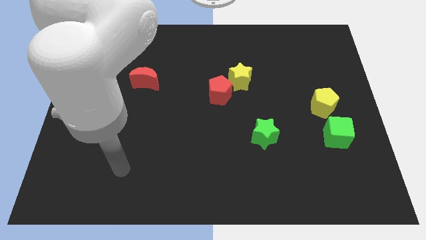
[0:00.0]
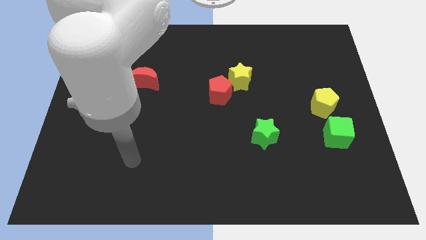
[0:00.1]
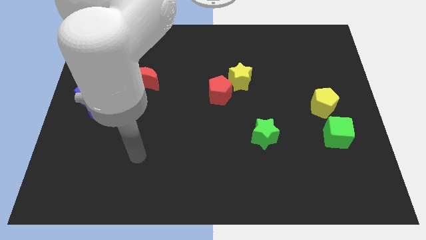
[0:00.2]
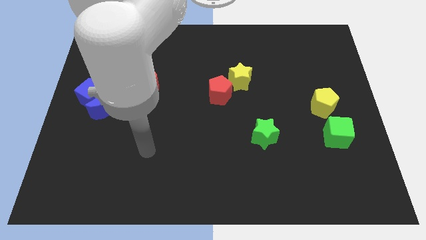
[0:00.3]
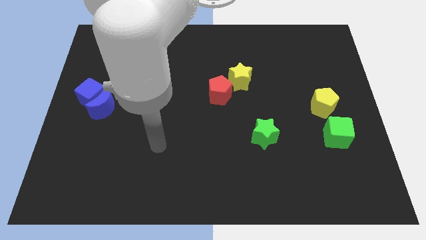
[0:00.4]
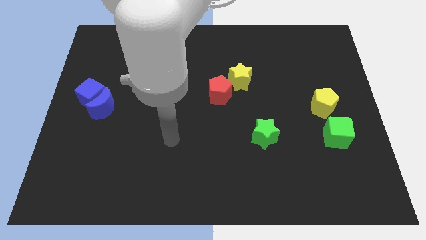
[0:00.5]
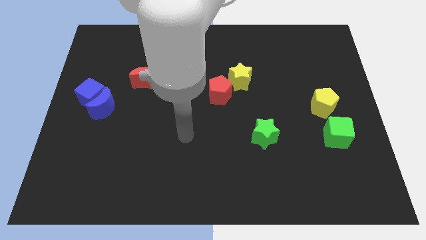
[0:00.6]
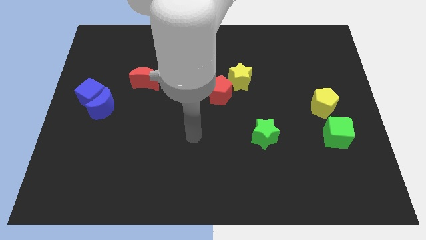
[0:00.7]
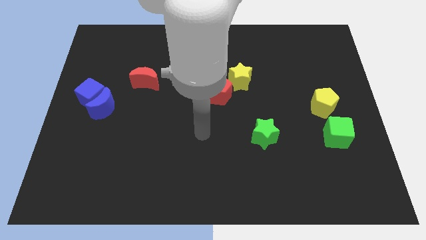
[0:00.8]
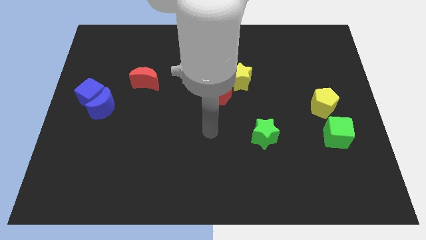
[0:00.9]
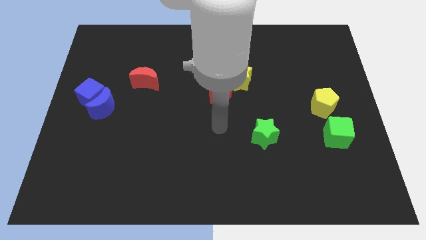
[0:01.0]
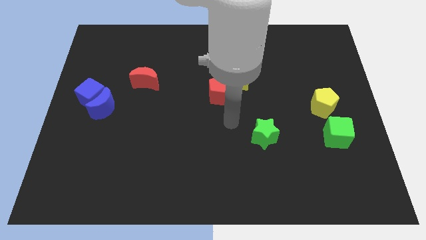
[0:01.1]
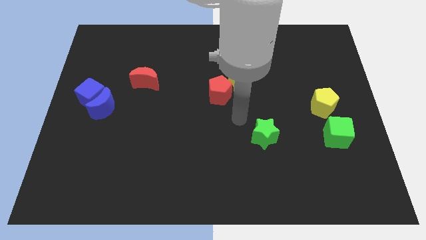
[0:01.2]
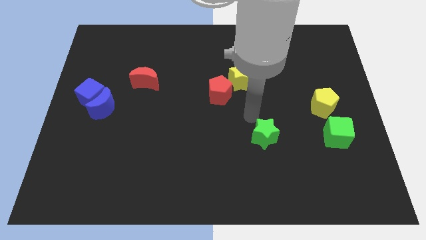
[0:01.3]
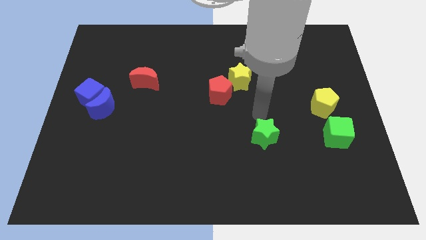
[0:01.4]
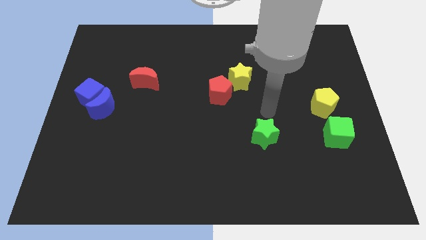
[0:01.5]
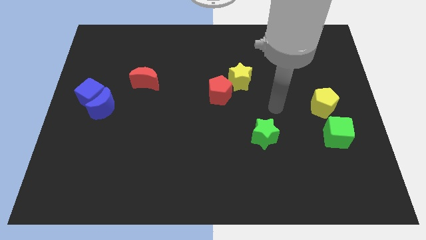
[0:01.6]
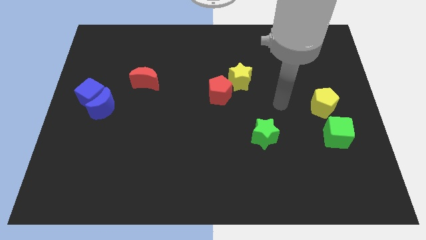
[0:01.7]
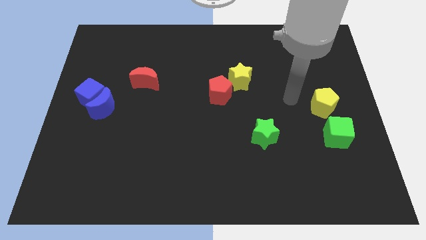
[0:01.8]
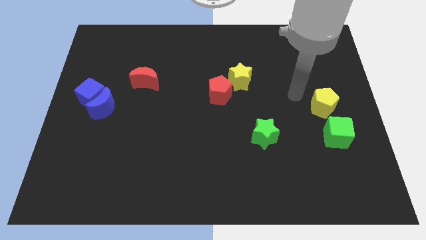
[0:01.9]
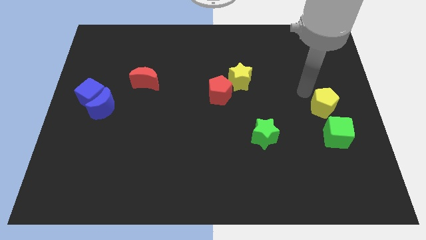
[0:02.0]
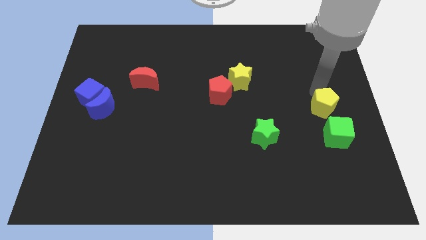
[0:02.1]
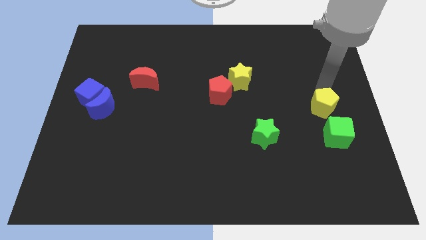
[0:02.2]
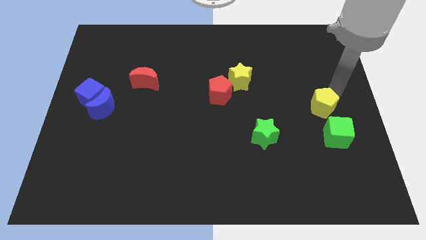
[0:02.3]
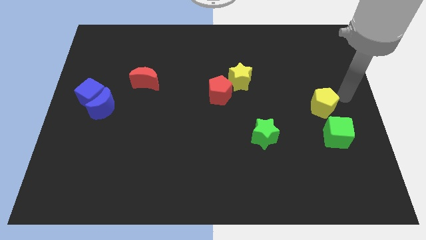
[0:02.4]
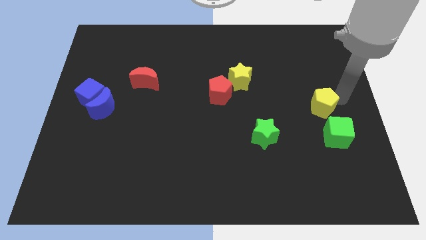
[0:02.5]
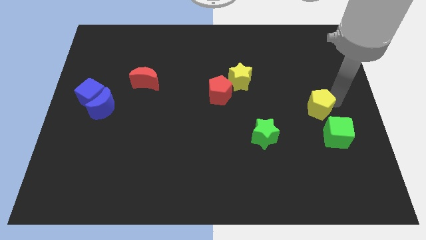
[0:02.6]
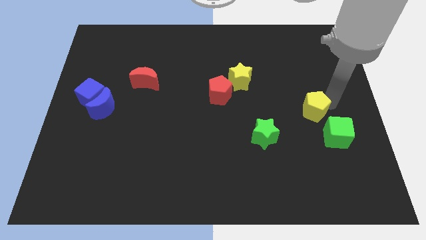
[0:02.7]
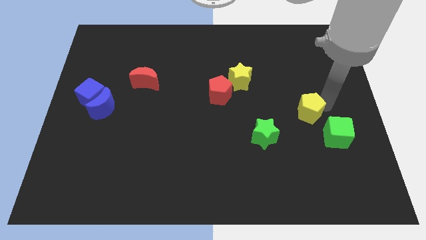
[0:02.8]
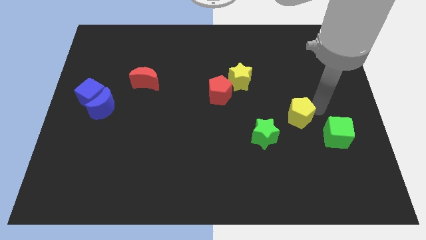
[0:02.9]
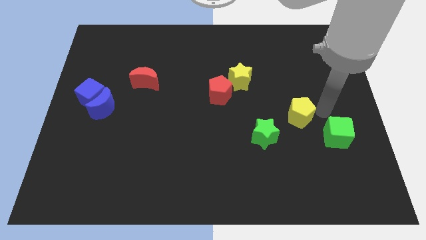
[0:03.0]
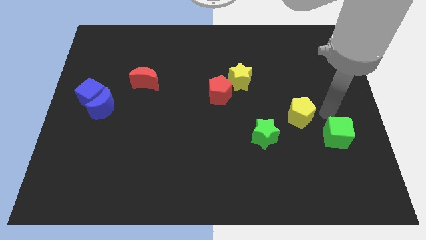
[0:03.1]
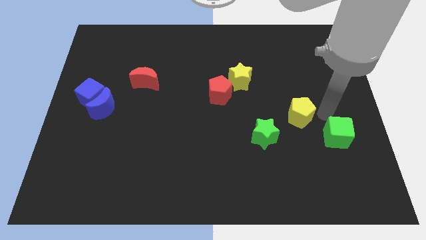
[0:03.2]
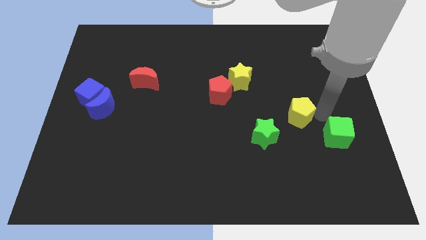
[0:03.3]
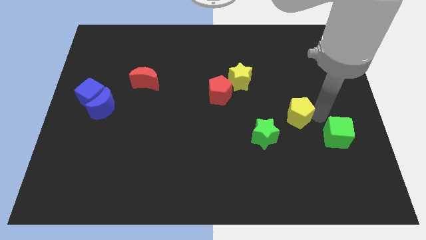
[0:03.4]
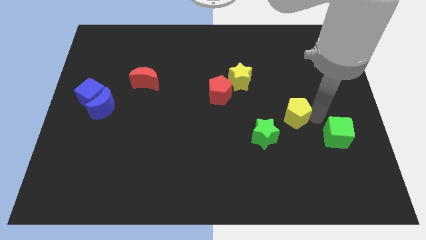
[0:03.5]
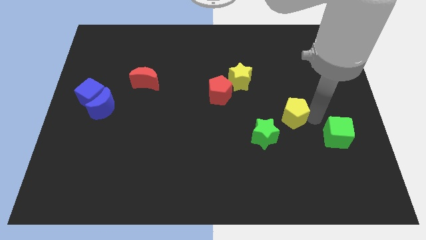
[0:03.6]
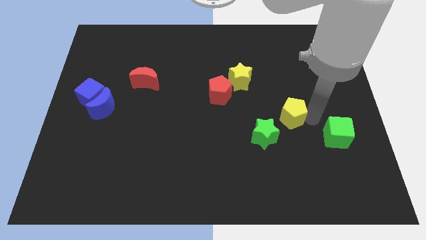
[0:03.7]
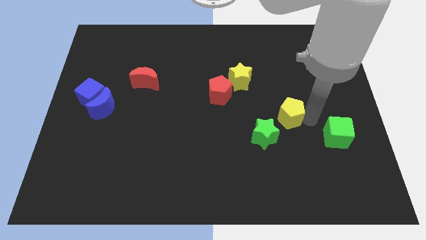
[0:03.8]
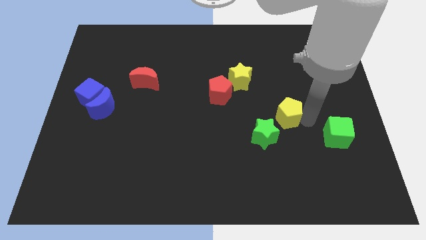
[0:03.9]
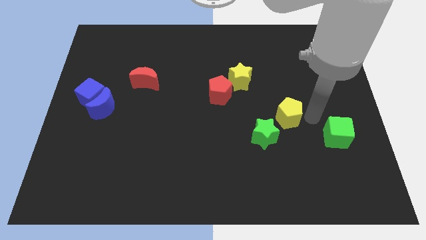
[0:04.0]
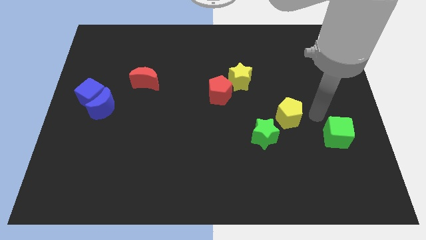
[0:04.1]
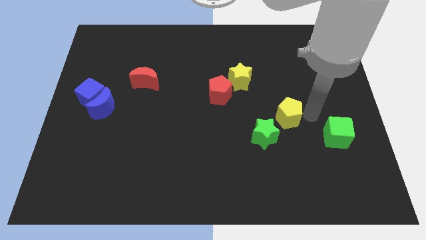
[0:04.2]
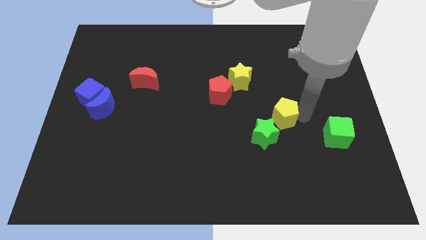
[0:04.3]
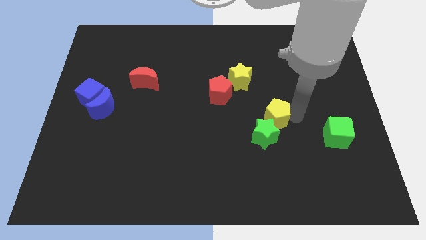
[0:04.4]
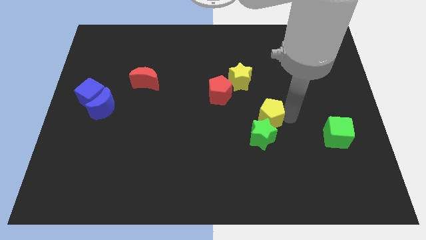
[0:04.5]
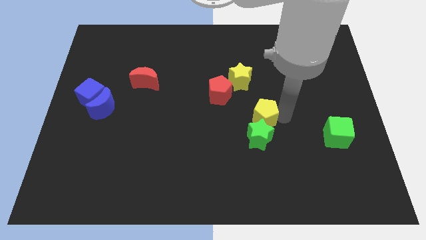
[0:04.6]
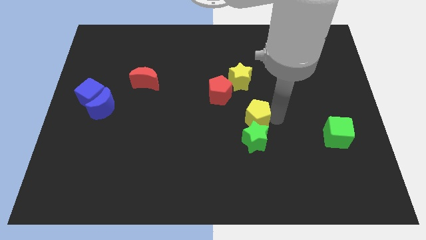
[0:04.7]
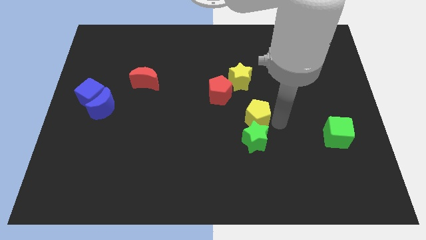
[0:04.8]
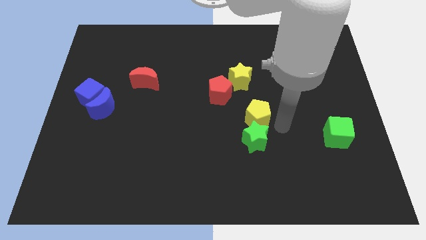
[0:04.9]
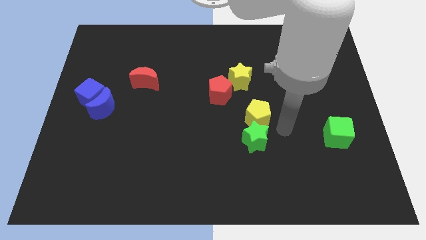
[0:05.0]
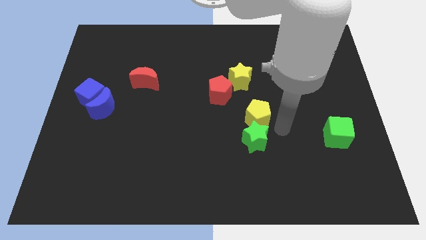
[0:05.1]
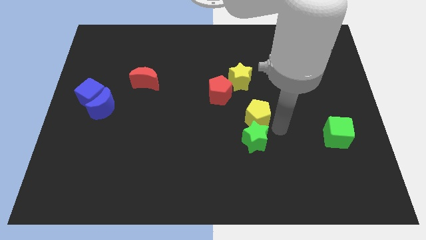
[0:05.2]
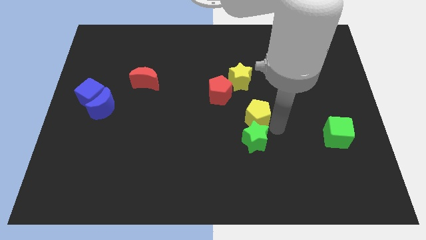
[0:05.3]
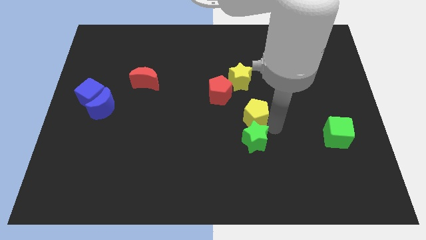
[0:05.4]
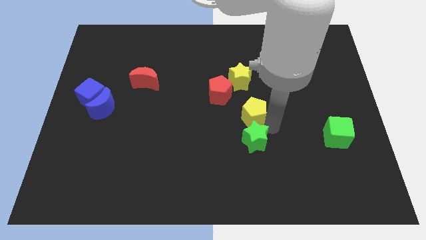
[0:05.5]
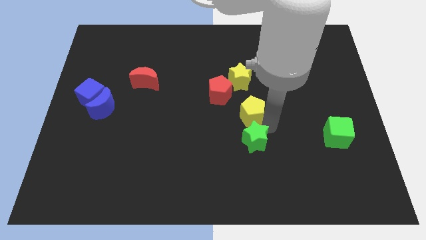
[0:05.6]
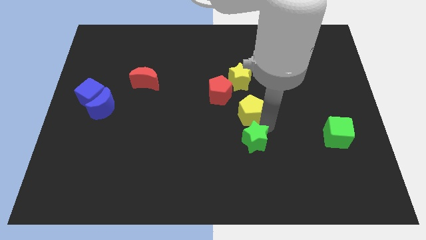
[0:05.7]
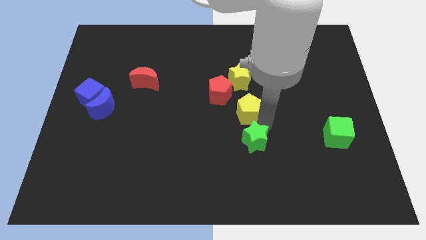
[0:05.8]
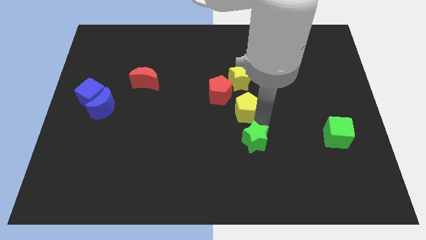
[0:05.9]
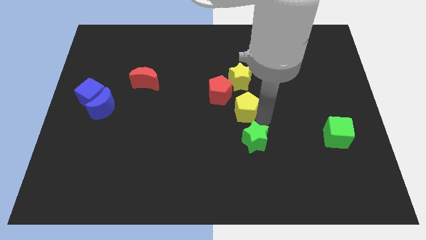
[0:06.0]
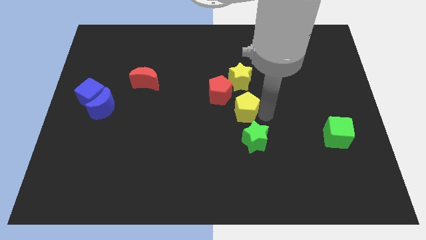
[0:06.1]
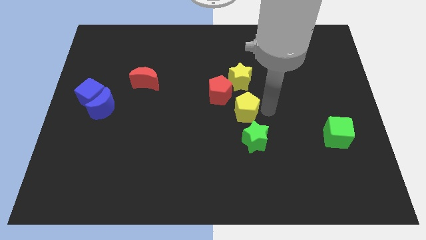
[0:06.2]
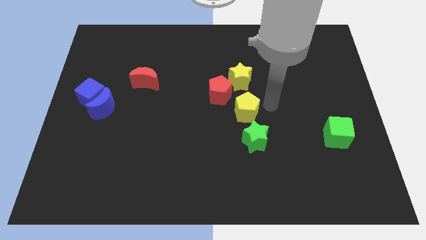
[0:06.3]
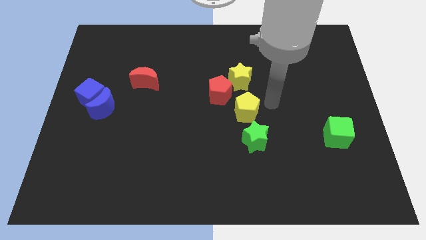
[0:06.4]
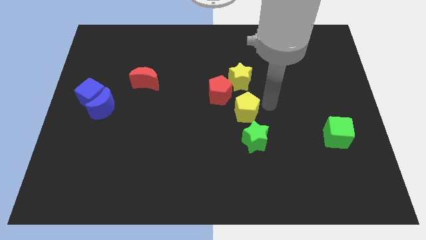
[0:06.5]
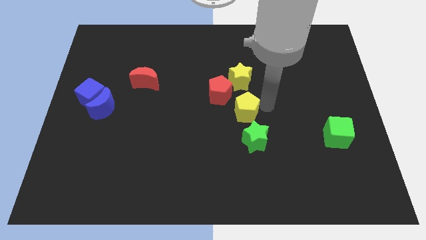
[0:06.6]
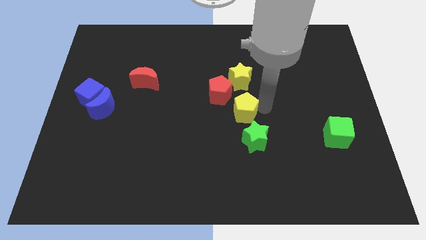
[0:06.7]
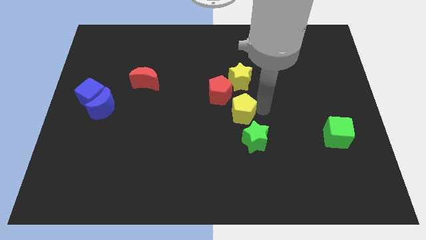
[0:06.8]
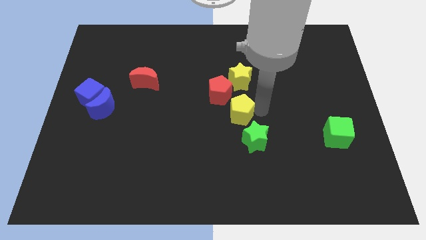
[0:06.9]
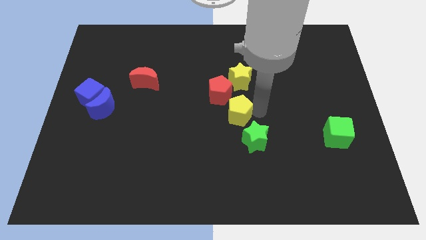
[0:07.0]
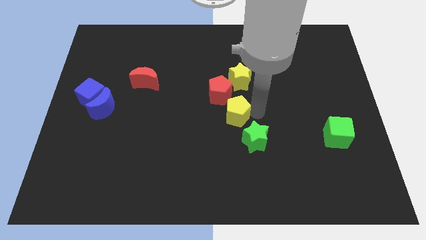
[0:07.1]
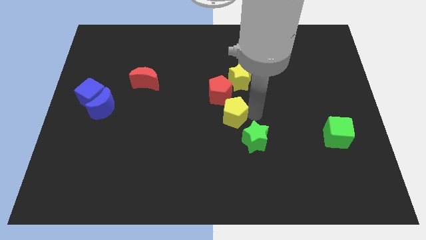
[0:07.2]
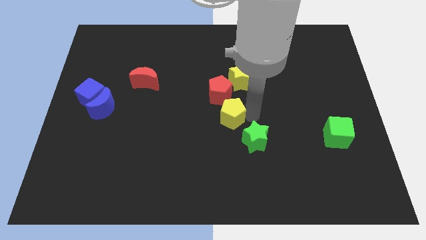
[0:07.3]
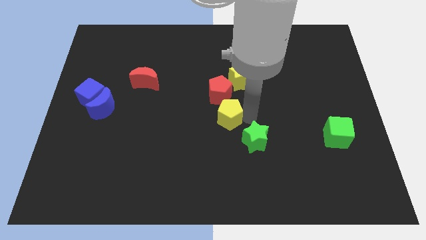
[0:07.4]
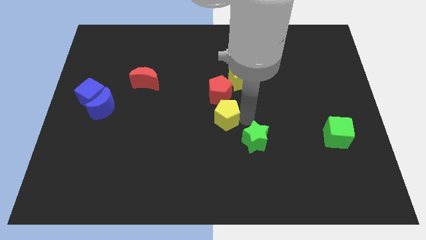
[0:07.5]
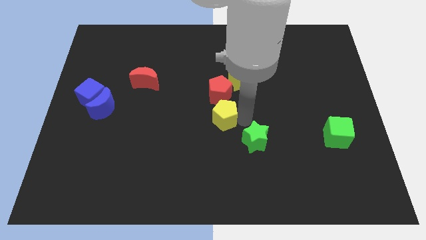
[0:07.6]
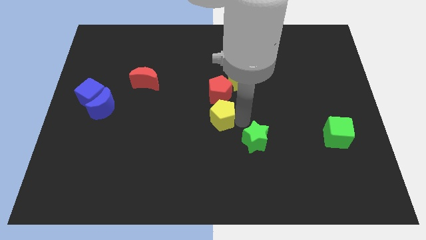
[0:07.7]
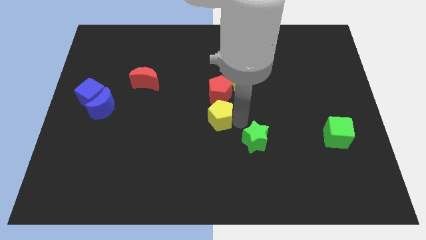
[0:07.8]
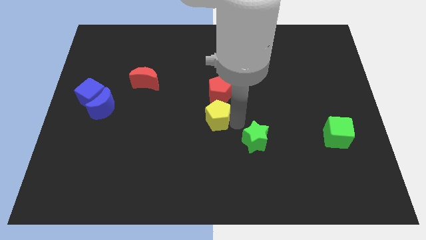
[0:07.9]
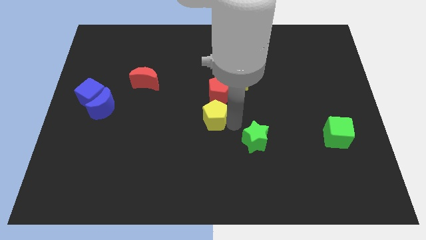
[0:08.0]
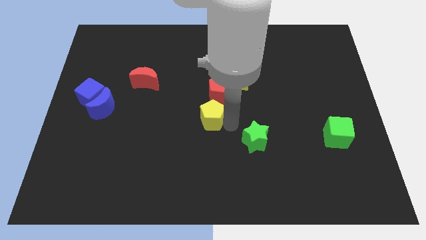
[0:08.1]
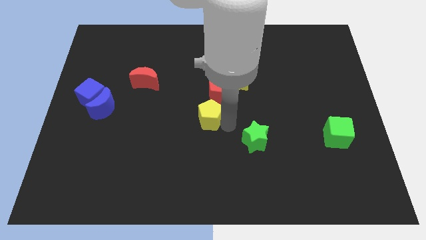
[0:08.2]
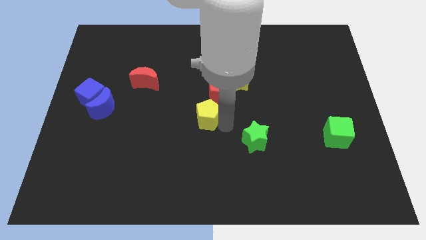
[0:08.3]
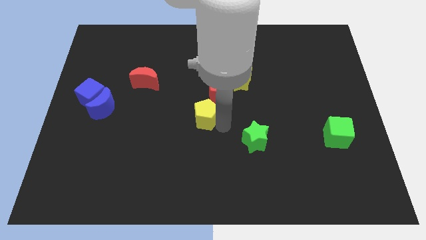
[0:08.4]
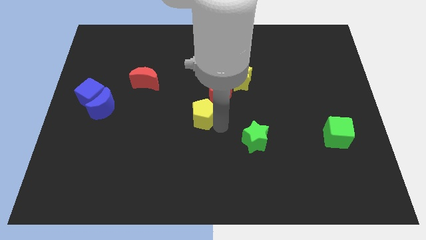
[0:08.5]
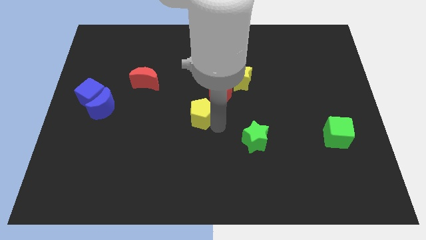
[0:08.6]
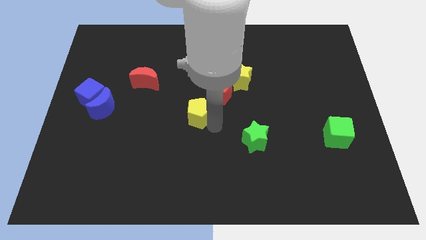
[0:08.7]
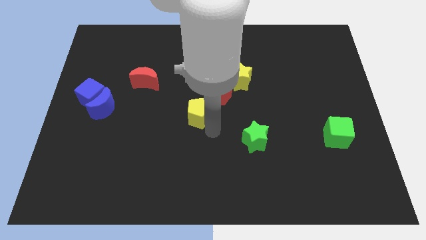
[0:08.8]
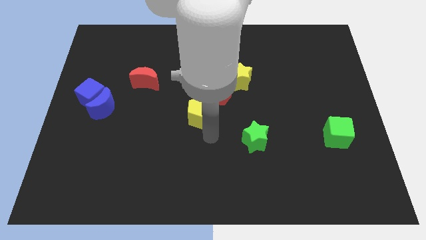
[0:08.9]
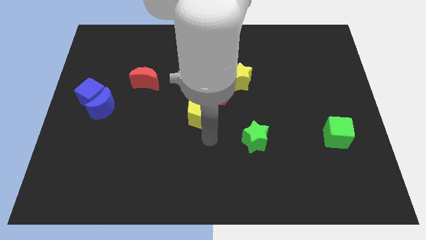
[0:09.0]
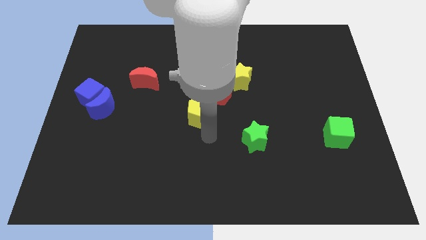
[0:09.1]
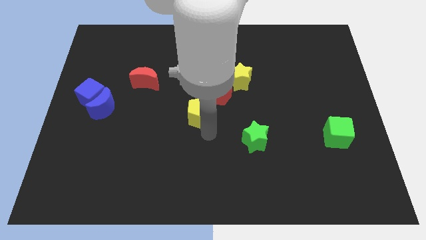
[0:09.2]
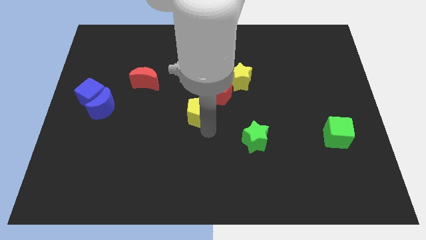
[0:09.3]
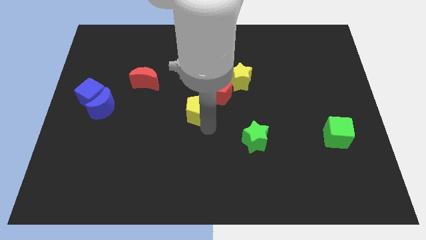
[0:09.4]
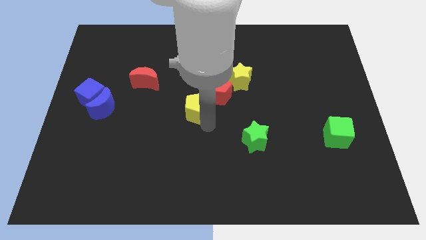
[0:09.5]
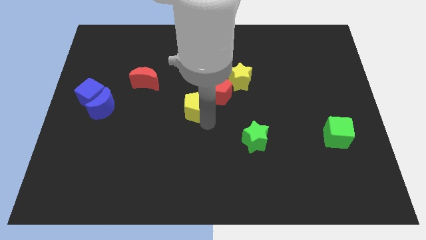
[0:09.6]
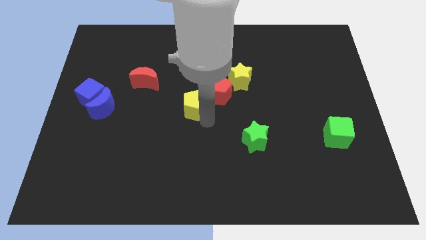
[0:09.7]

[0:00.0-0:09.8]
put the yellow pentagon to the left side of the red pentagon
